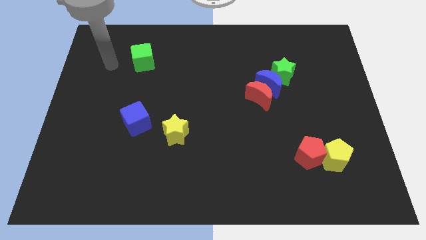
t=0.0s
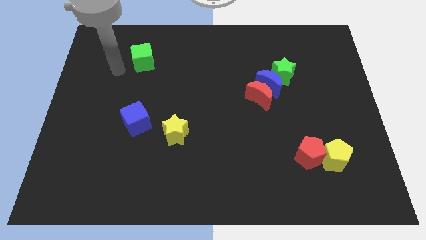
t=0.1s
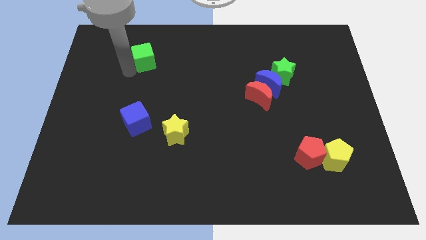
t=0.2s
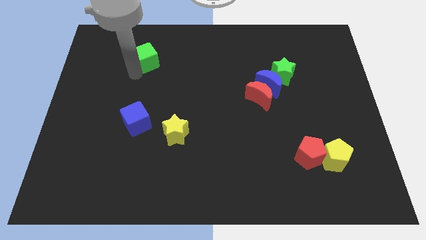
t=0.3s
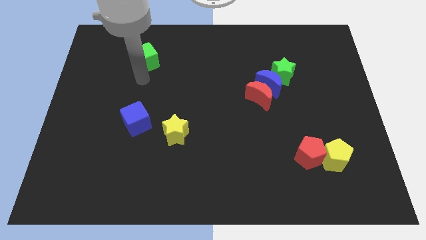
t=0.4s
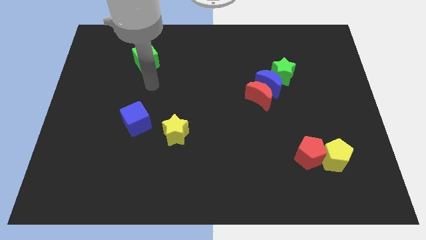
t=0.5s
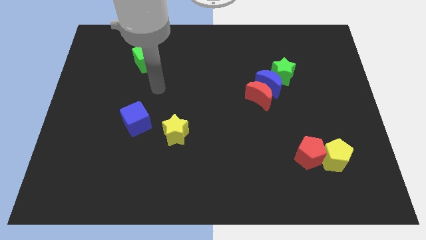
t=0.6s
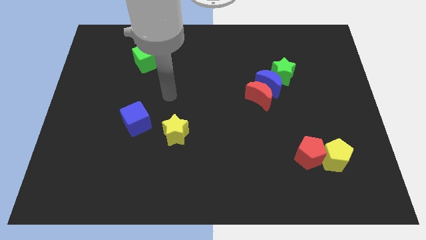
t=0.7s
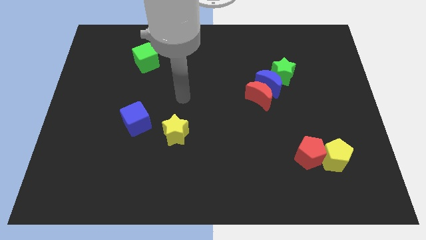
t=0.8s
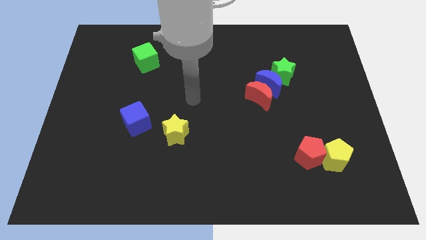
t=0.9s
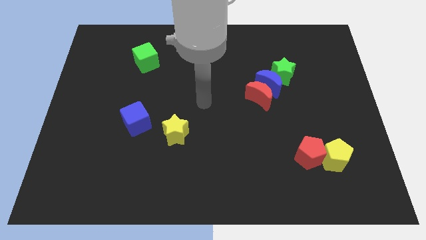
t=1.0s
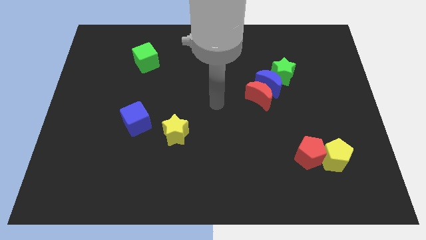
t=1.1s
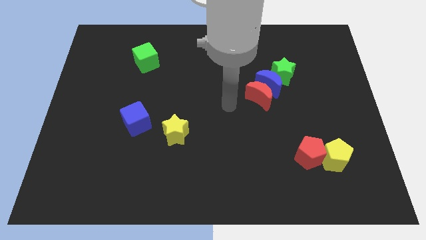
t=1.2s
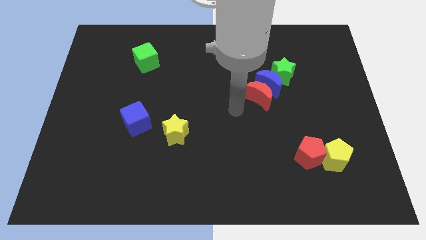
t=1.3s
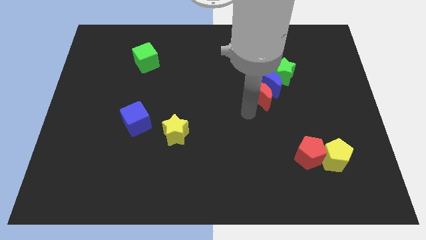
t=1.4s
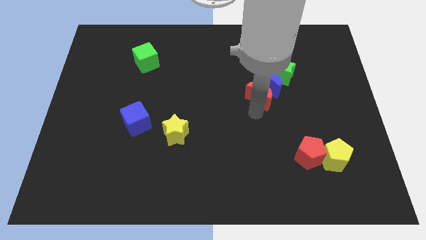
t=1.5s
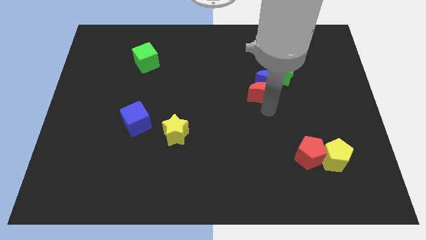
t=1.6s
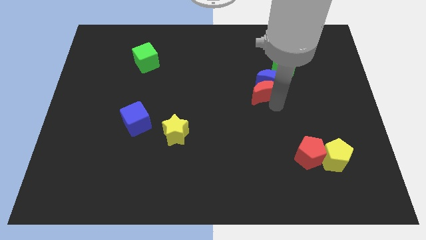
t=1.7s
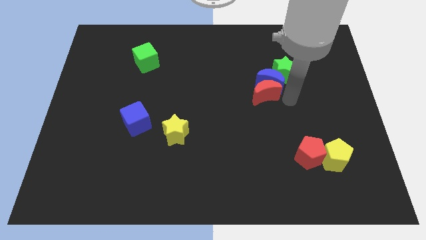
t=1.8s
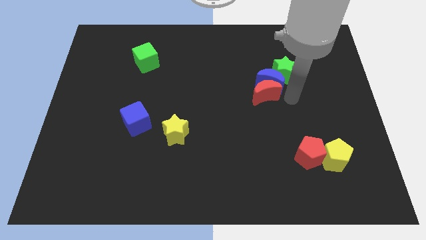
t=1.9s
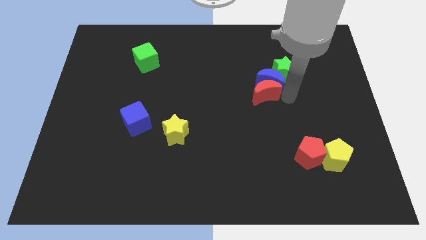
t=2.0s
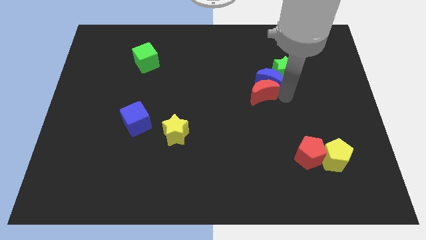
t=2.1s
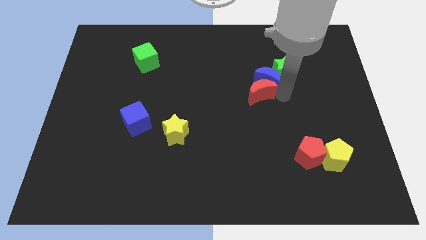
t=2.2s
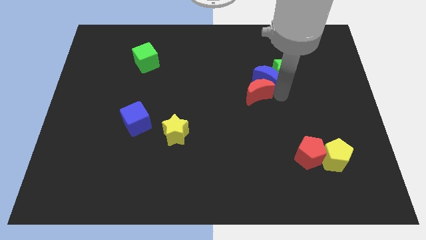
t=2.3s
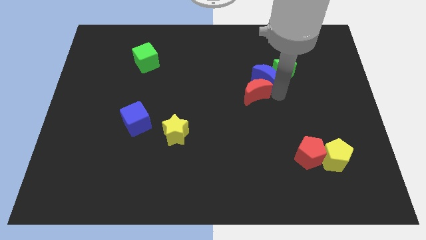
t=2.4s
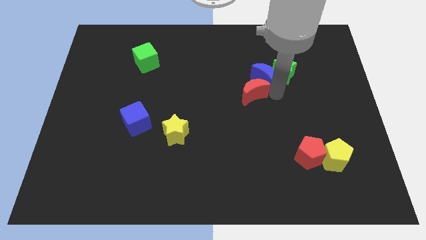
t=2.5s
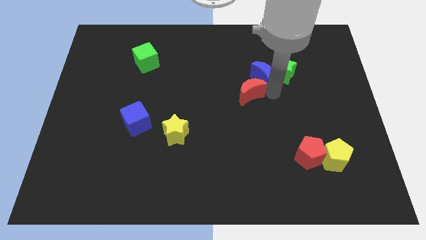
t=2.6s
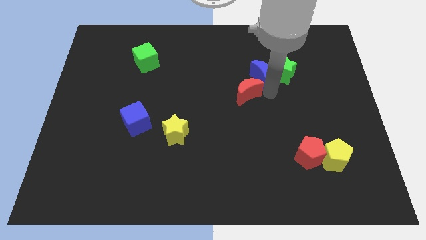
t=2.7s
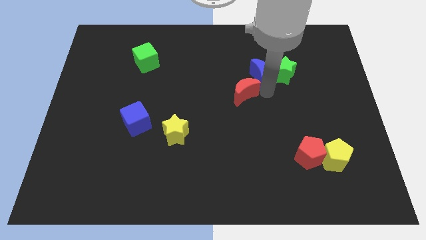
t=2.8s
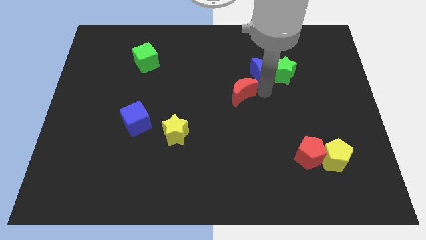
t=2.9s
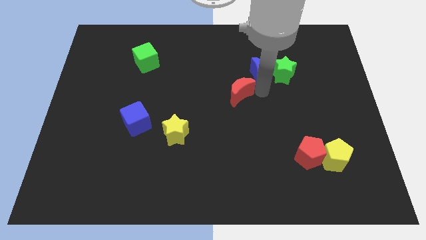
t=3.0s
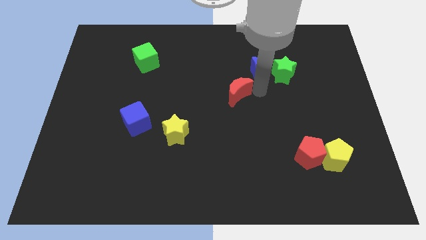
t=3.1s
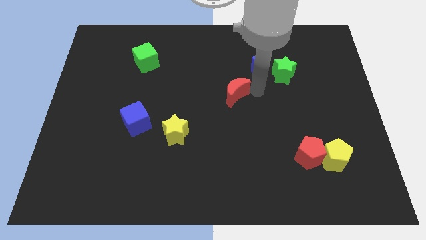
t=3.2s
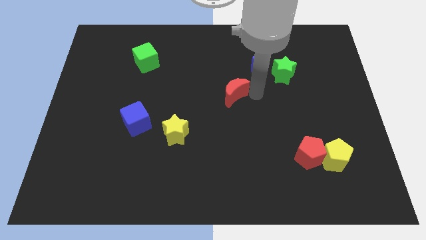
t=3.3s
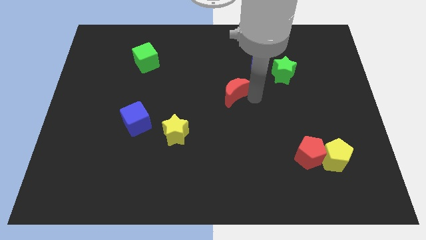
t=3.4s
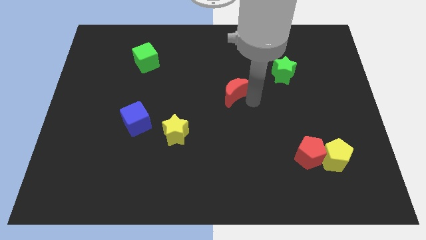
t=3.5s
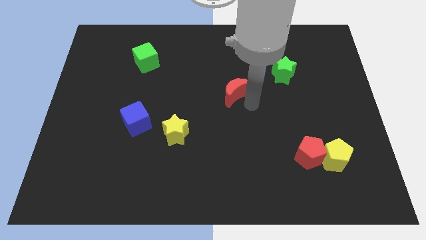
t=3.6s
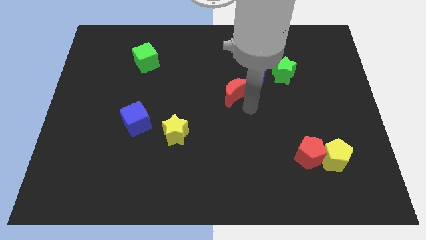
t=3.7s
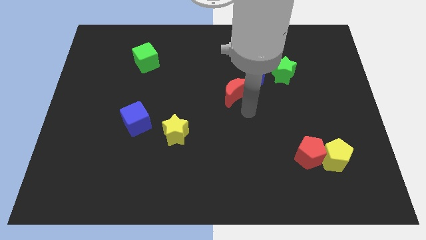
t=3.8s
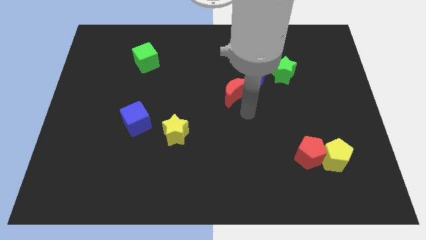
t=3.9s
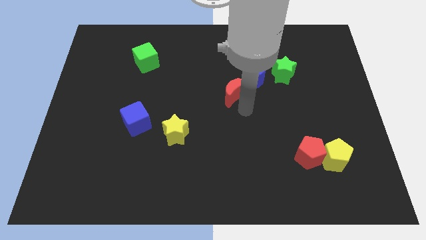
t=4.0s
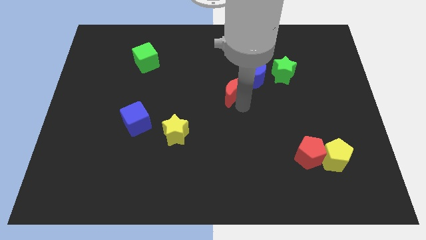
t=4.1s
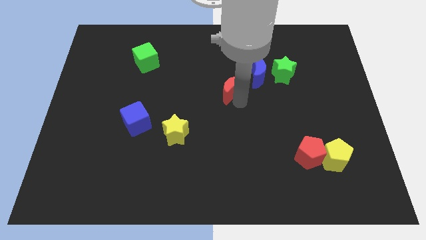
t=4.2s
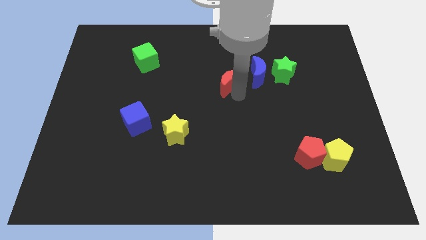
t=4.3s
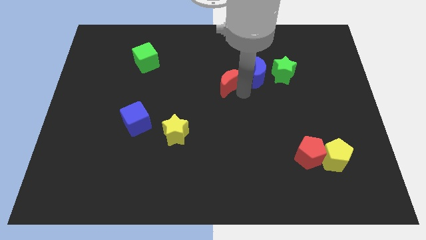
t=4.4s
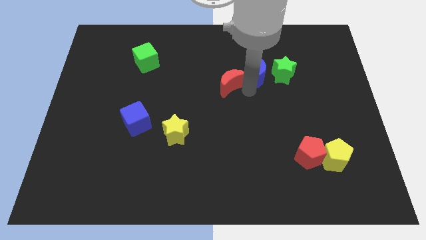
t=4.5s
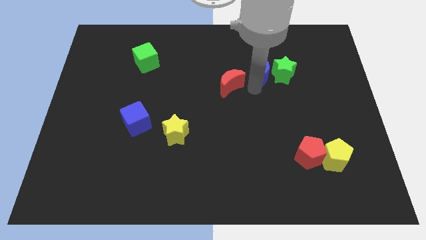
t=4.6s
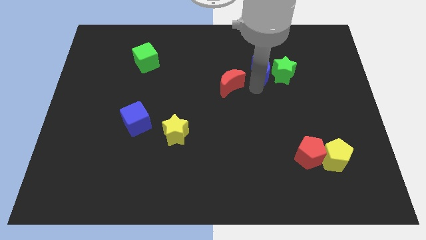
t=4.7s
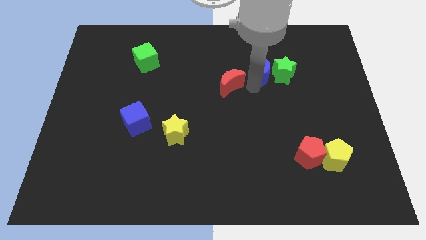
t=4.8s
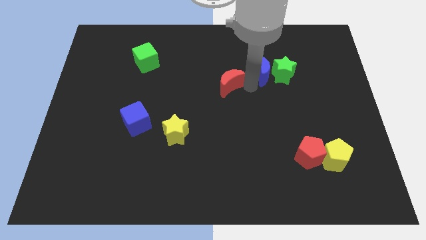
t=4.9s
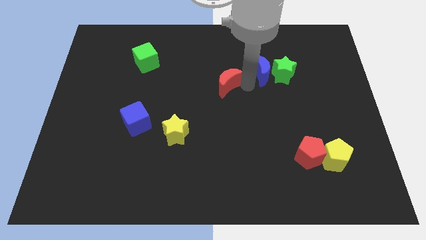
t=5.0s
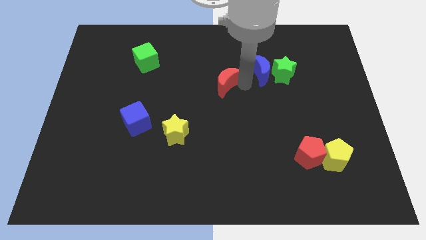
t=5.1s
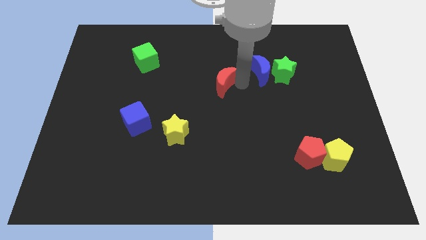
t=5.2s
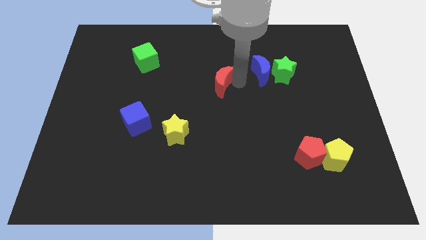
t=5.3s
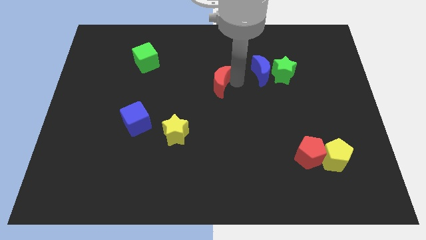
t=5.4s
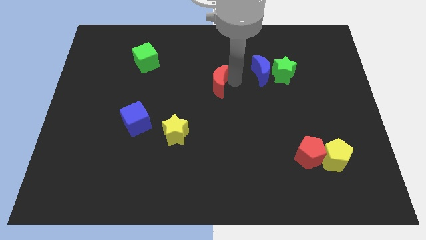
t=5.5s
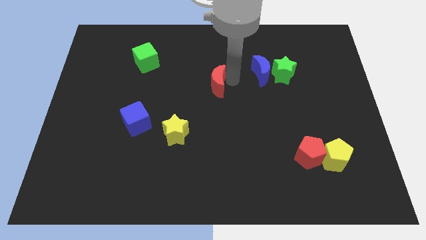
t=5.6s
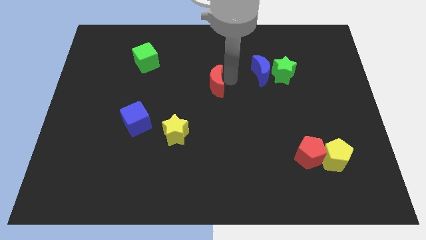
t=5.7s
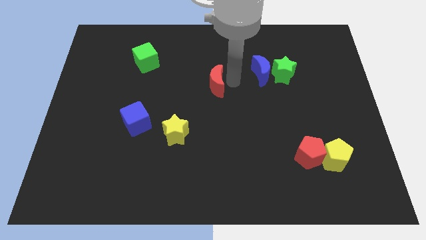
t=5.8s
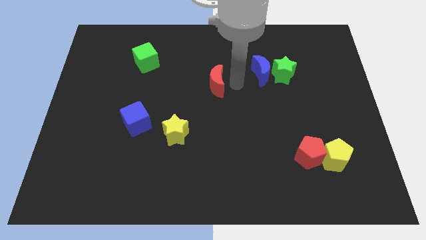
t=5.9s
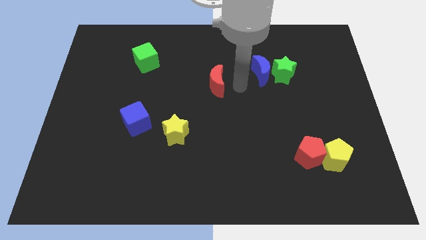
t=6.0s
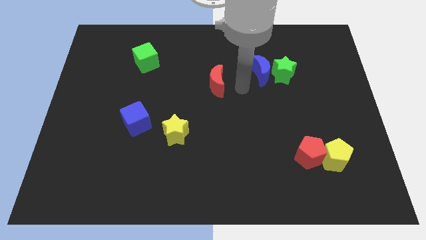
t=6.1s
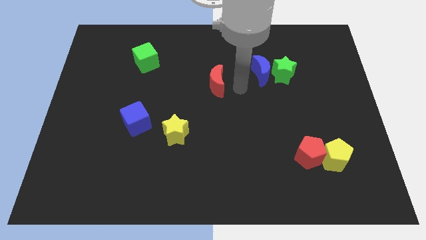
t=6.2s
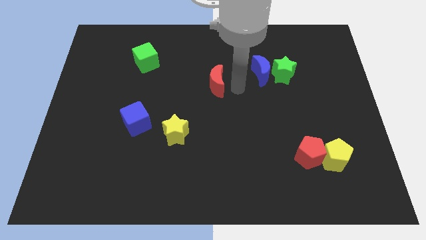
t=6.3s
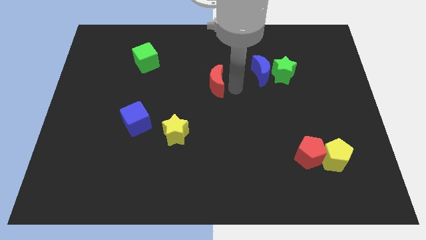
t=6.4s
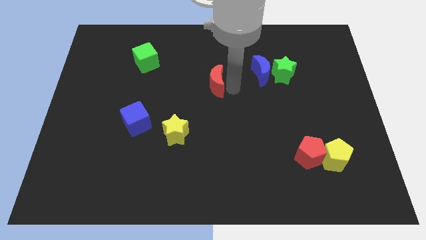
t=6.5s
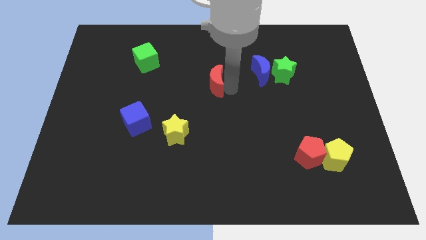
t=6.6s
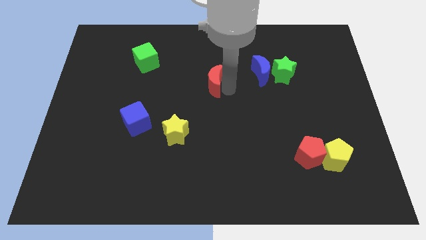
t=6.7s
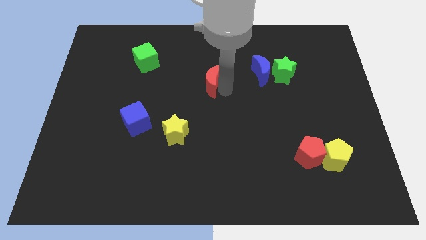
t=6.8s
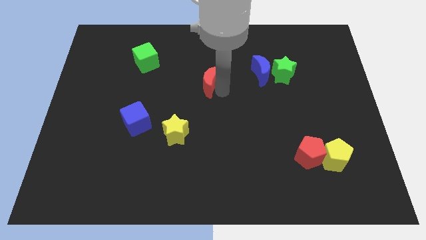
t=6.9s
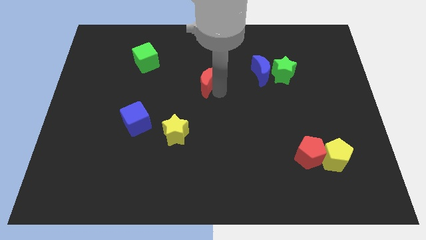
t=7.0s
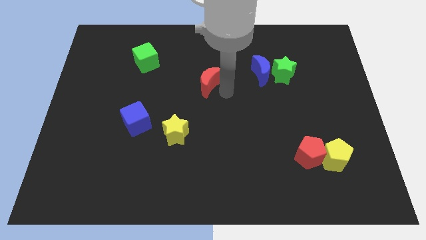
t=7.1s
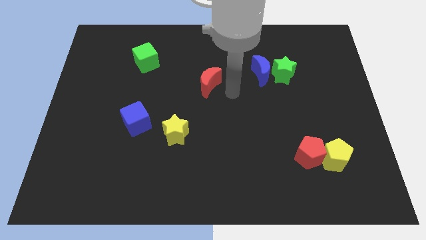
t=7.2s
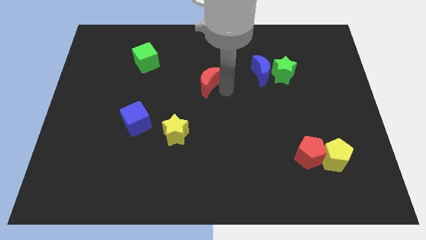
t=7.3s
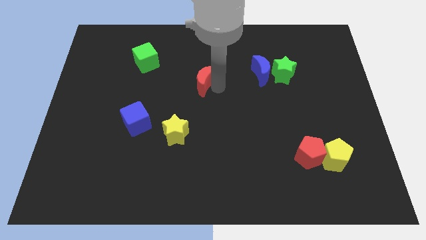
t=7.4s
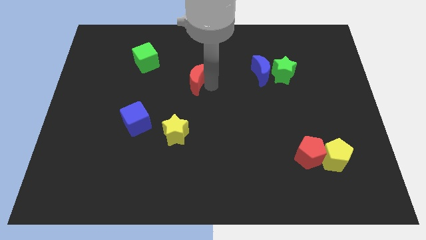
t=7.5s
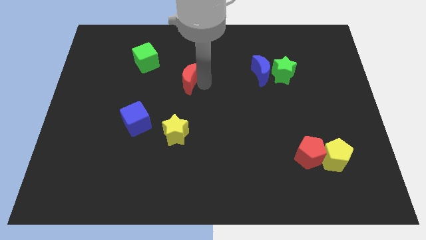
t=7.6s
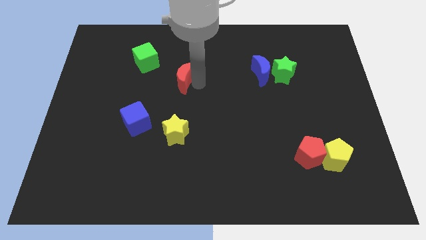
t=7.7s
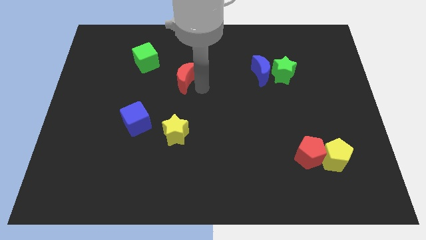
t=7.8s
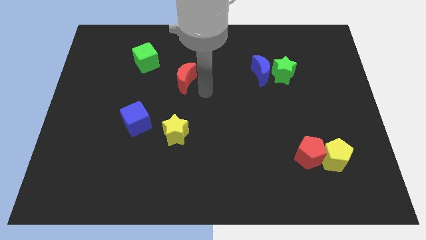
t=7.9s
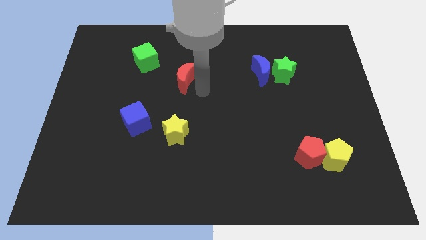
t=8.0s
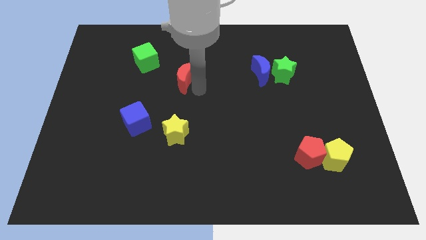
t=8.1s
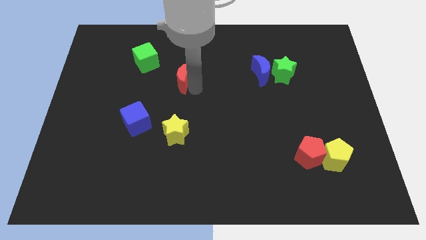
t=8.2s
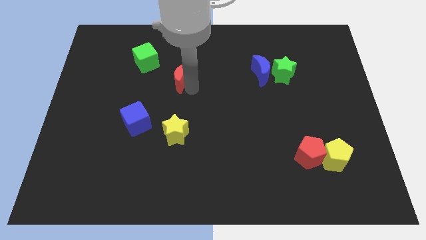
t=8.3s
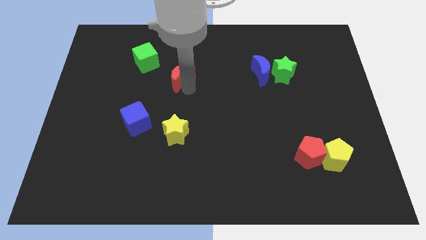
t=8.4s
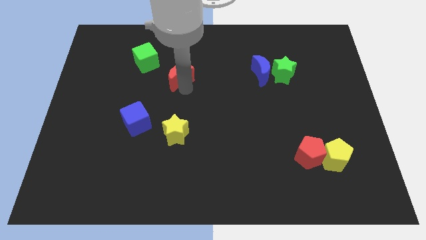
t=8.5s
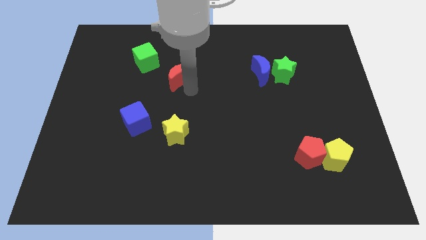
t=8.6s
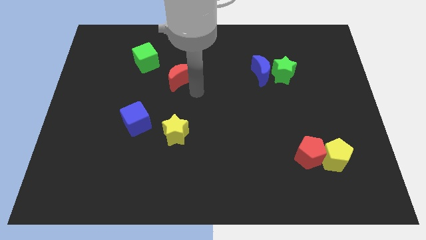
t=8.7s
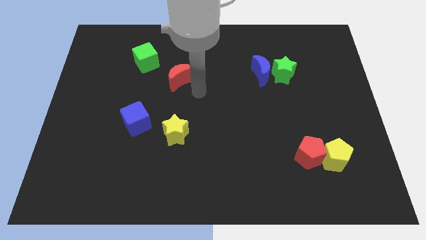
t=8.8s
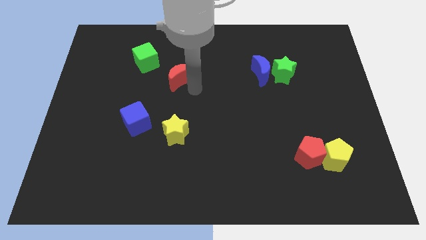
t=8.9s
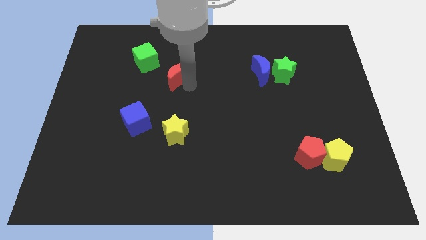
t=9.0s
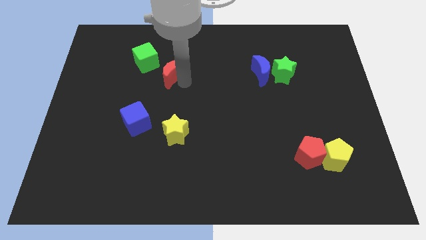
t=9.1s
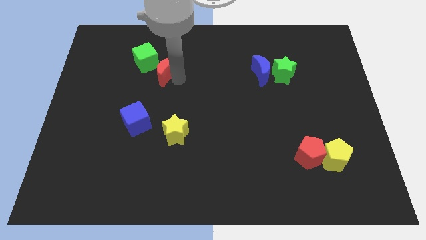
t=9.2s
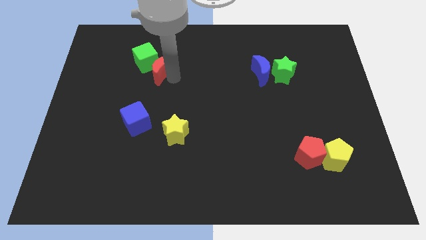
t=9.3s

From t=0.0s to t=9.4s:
slide the red moon to the green cube
